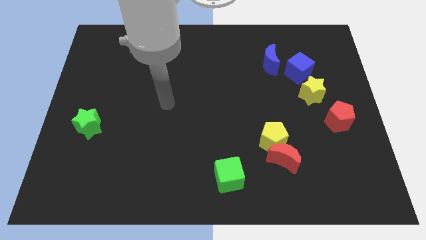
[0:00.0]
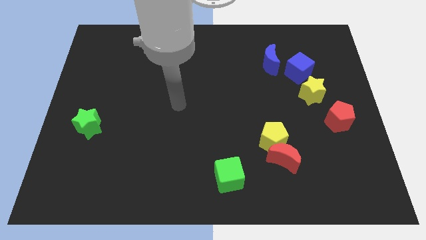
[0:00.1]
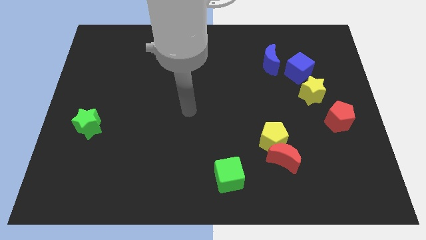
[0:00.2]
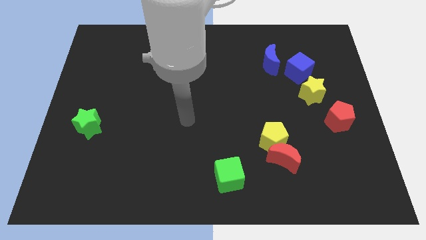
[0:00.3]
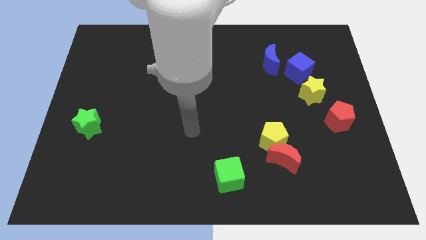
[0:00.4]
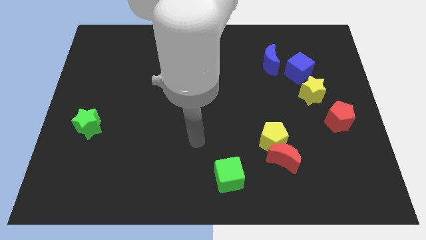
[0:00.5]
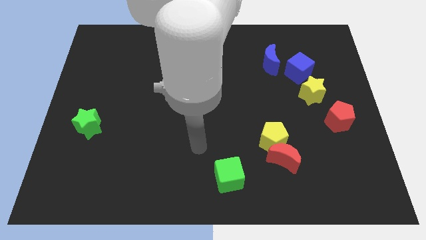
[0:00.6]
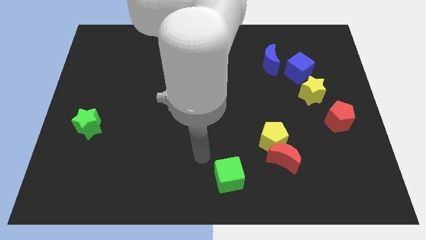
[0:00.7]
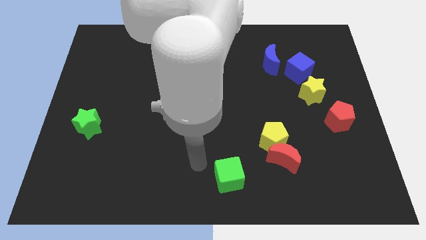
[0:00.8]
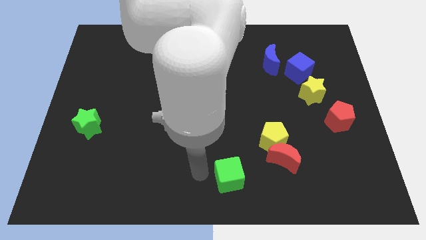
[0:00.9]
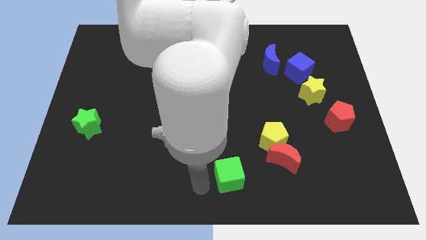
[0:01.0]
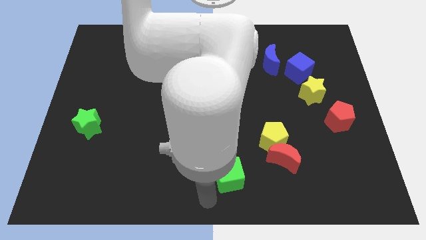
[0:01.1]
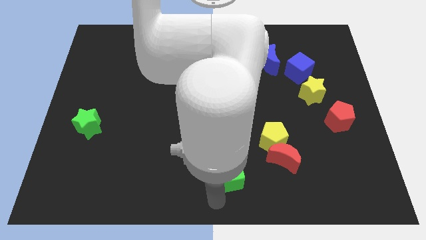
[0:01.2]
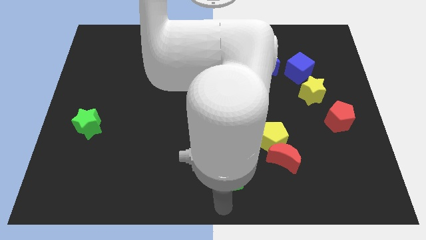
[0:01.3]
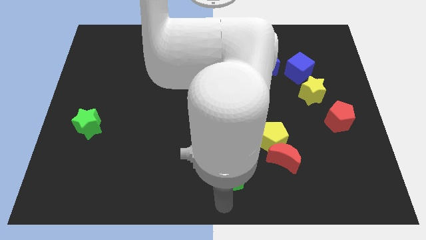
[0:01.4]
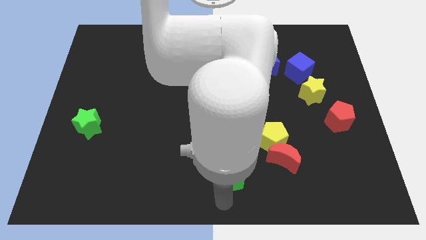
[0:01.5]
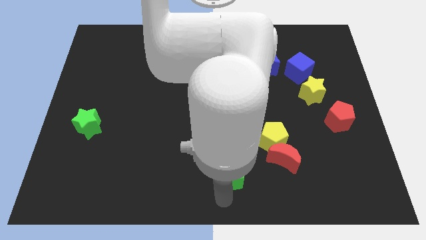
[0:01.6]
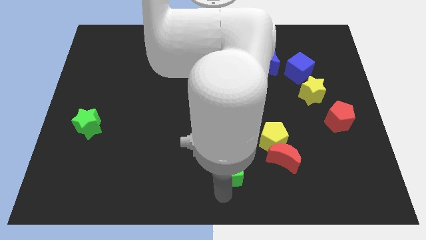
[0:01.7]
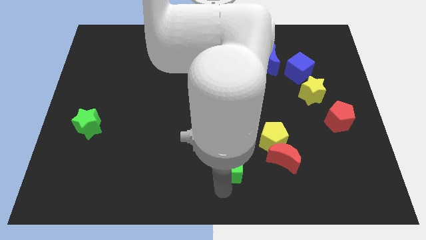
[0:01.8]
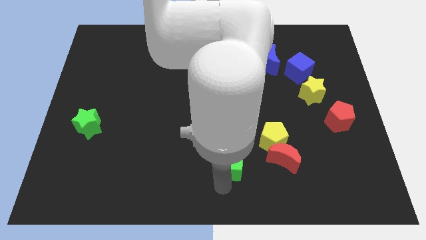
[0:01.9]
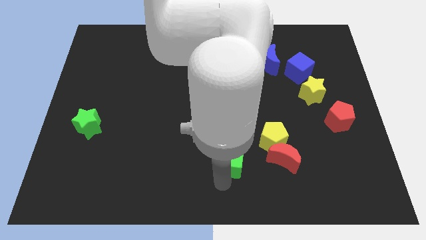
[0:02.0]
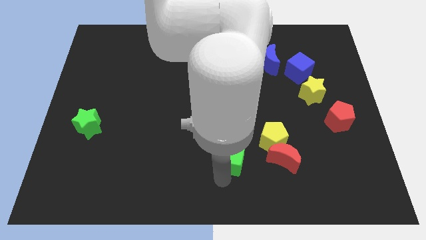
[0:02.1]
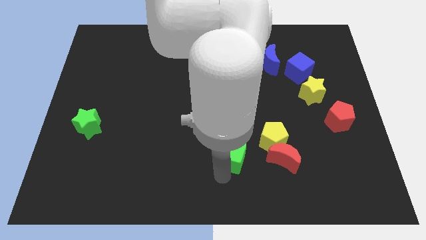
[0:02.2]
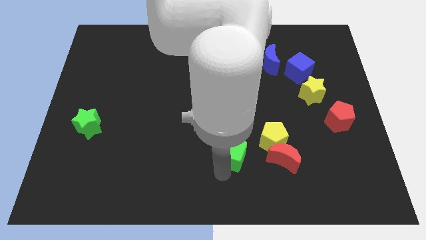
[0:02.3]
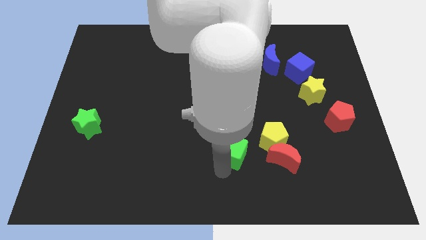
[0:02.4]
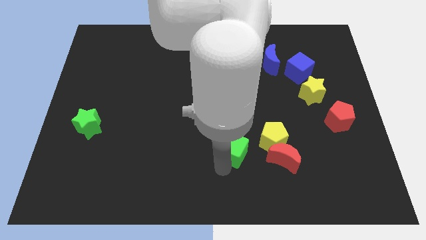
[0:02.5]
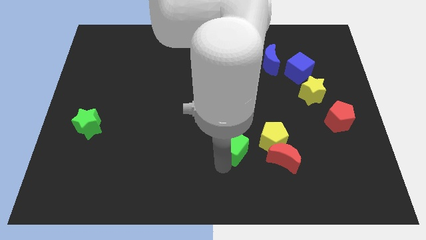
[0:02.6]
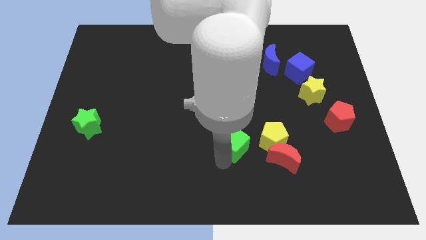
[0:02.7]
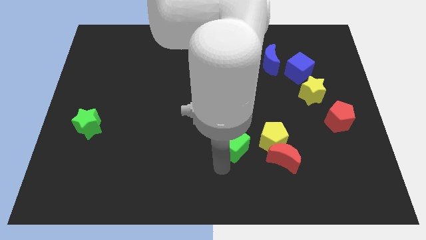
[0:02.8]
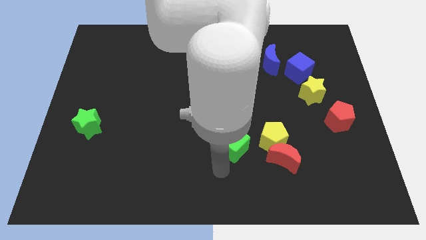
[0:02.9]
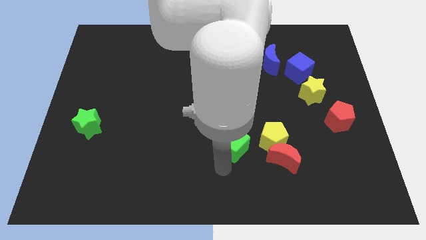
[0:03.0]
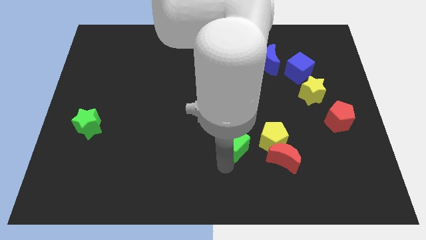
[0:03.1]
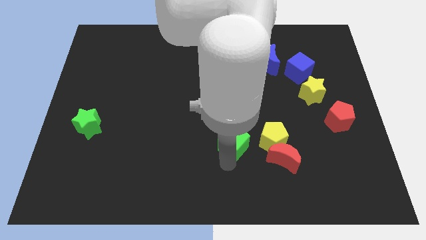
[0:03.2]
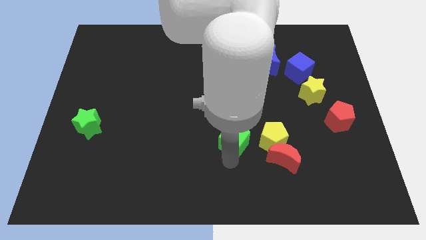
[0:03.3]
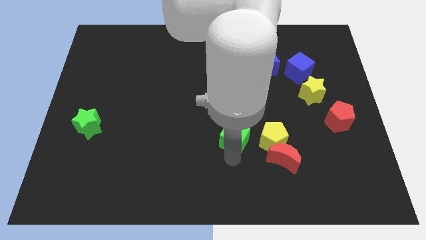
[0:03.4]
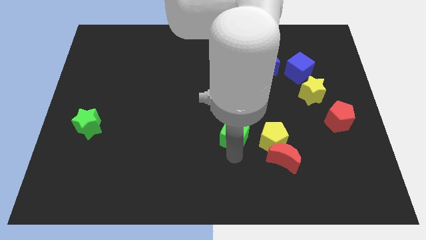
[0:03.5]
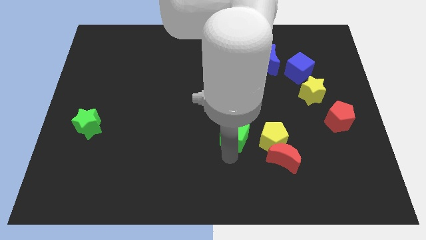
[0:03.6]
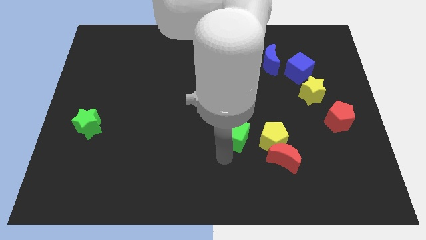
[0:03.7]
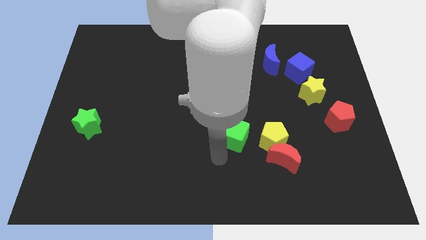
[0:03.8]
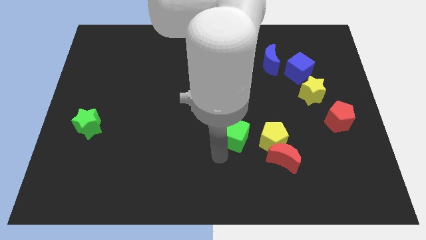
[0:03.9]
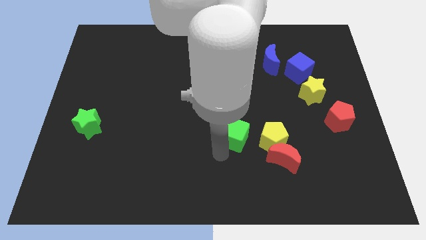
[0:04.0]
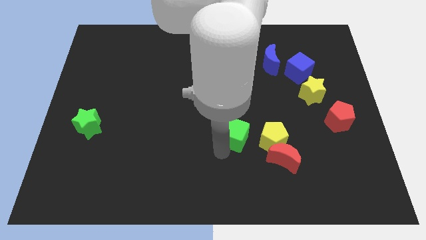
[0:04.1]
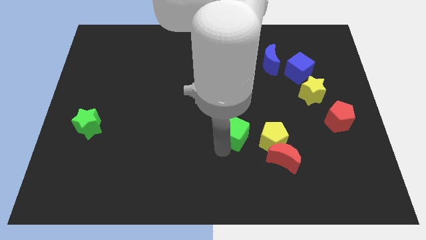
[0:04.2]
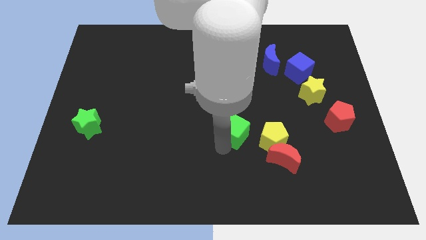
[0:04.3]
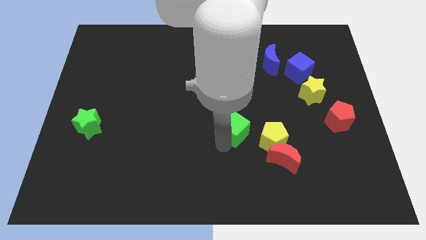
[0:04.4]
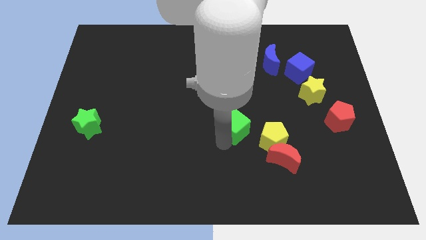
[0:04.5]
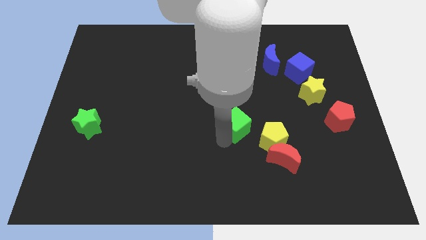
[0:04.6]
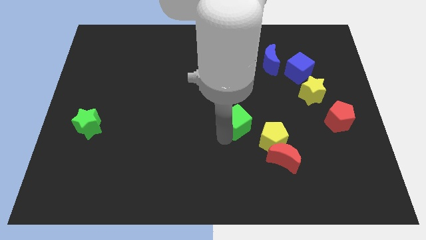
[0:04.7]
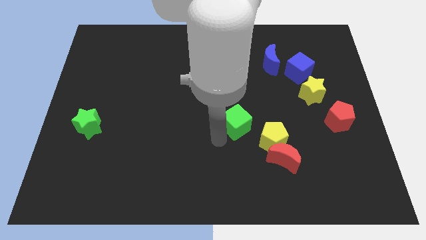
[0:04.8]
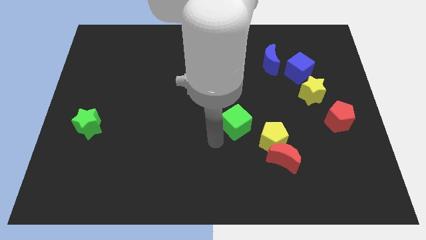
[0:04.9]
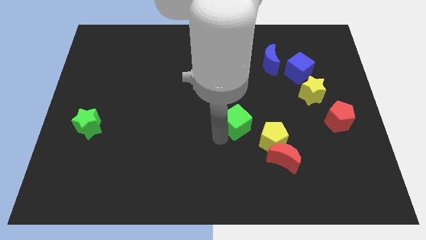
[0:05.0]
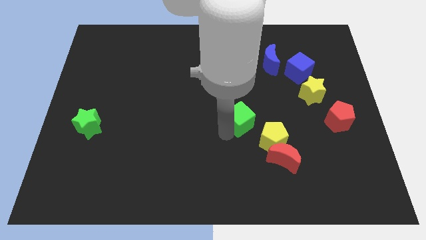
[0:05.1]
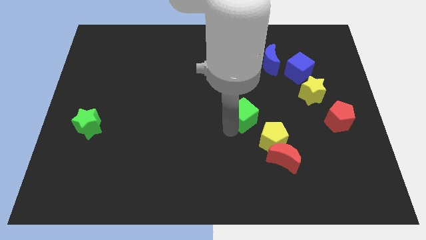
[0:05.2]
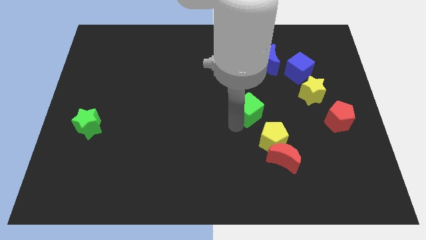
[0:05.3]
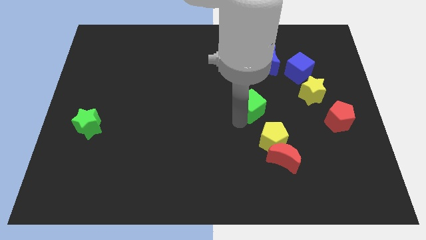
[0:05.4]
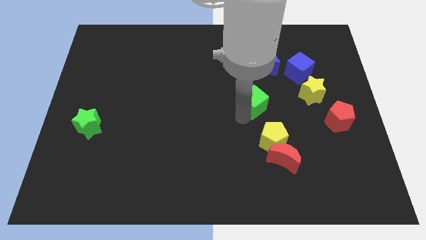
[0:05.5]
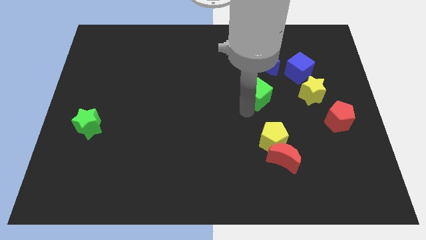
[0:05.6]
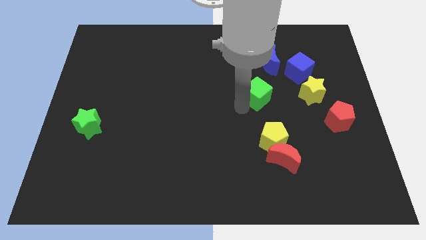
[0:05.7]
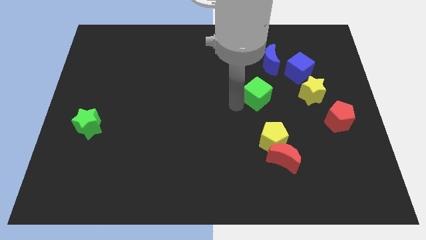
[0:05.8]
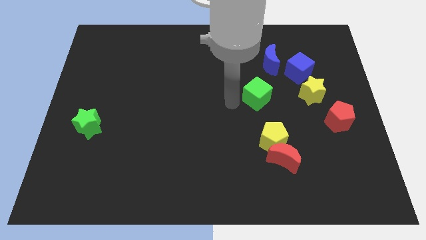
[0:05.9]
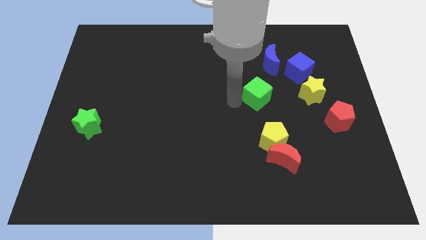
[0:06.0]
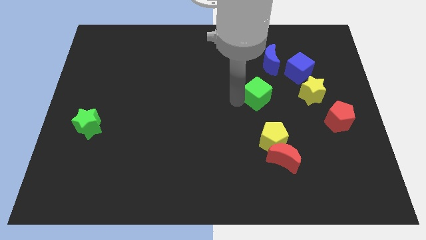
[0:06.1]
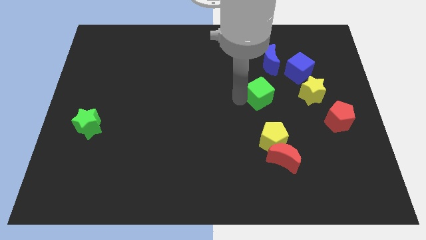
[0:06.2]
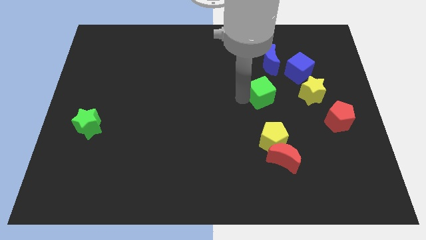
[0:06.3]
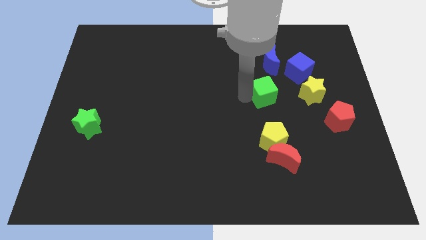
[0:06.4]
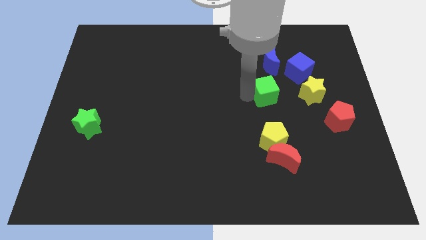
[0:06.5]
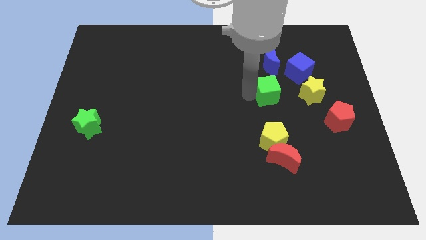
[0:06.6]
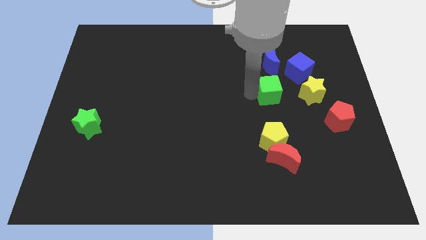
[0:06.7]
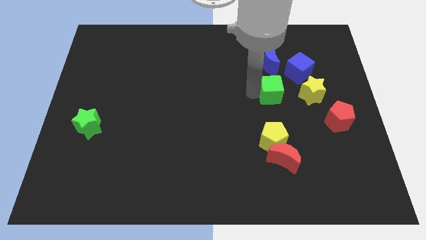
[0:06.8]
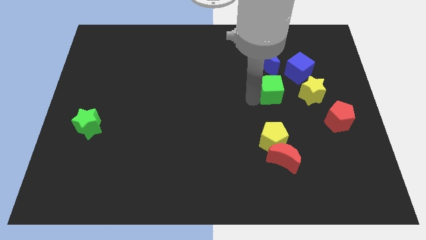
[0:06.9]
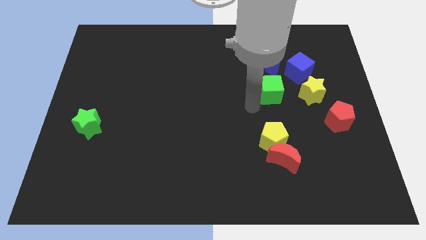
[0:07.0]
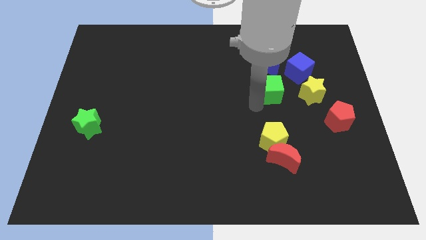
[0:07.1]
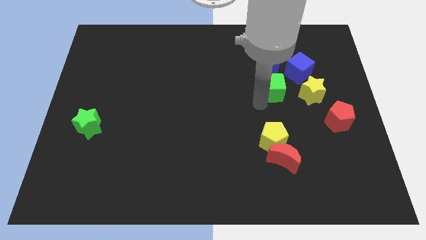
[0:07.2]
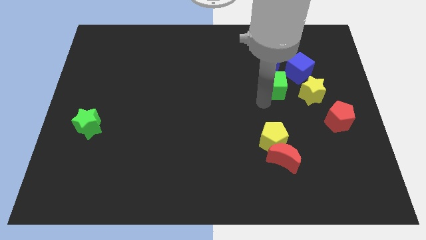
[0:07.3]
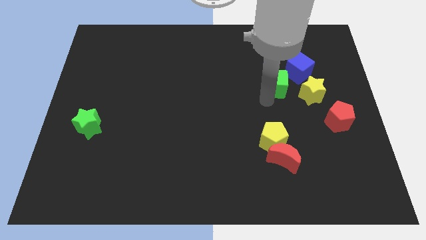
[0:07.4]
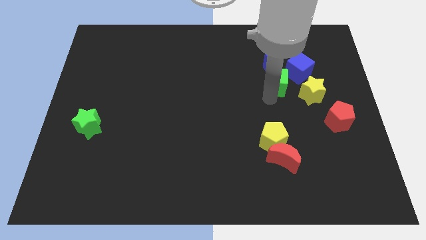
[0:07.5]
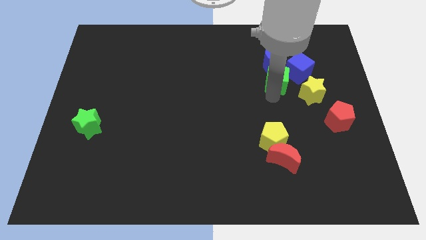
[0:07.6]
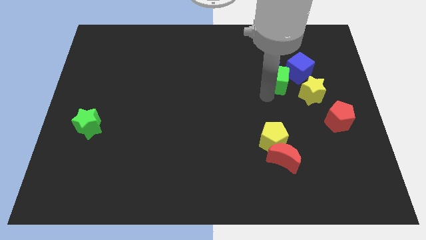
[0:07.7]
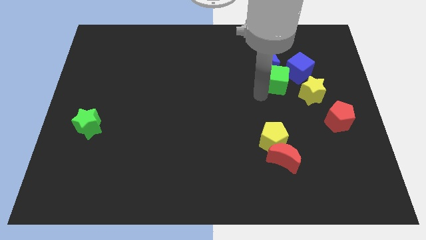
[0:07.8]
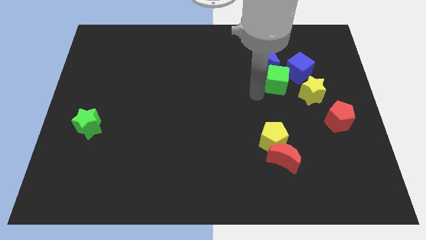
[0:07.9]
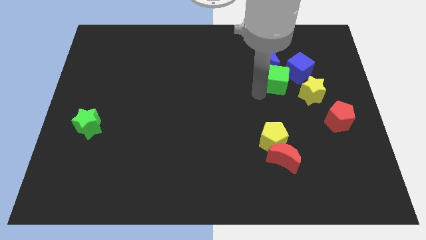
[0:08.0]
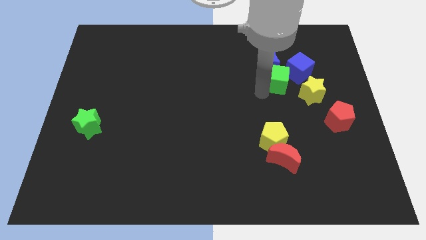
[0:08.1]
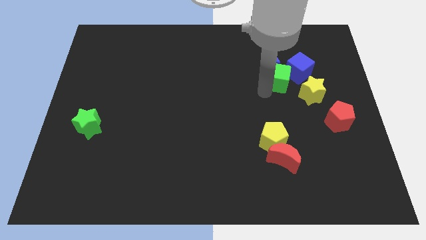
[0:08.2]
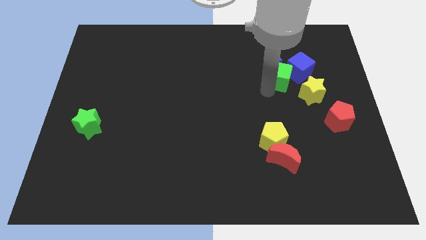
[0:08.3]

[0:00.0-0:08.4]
put the green cube close to the blue cube
